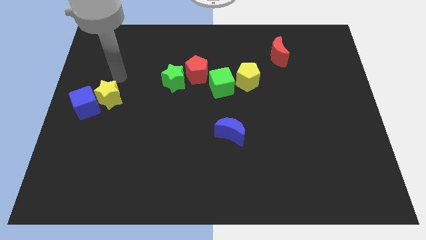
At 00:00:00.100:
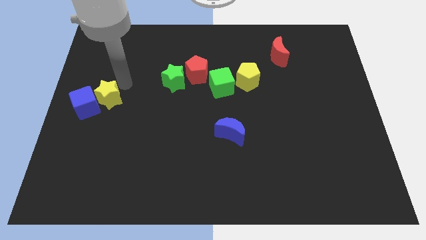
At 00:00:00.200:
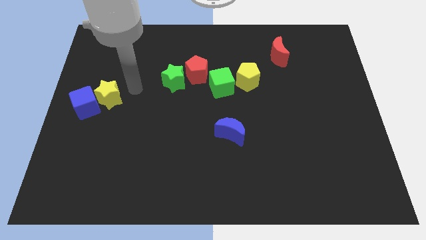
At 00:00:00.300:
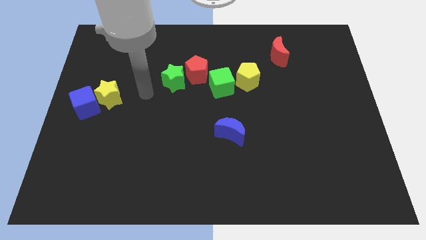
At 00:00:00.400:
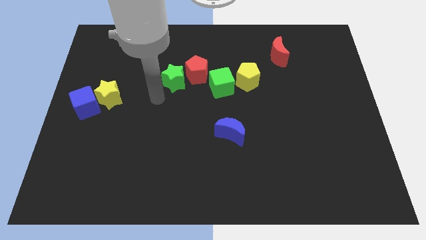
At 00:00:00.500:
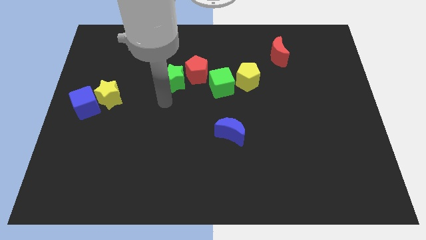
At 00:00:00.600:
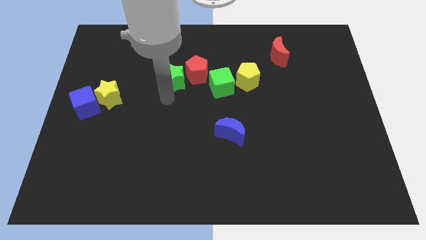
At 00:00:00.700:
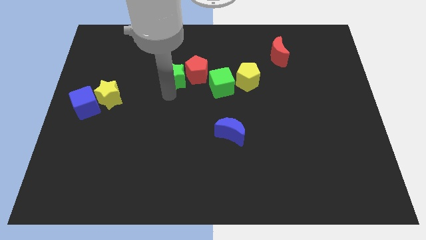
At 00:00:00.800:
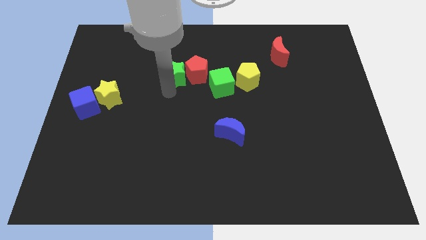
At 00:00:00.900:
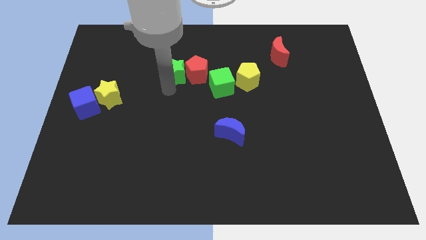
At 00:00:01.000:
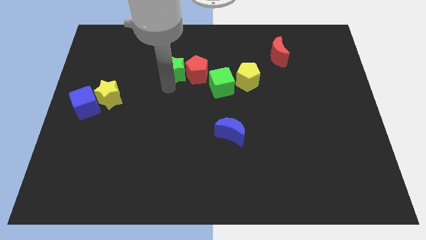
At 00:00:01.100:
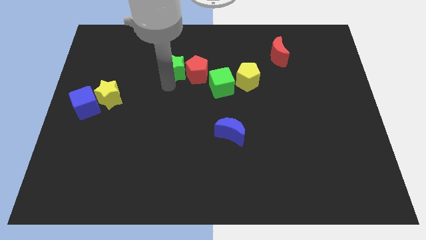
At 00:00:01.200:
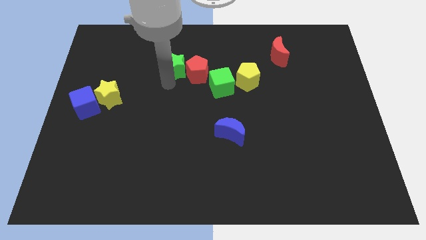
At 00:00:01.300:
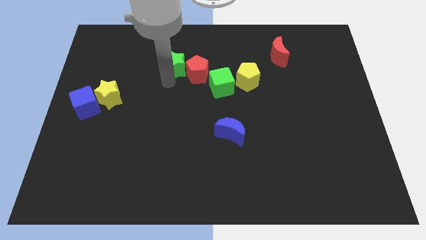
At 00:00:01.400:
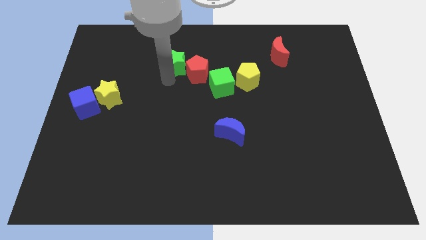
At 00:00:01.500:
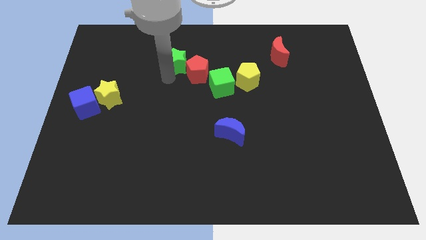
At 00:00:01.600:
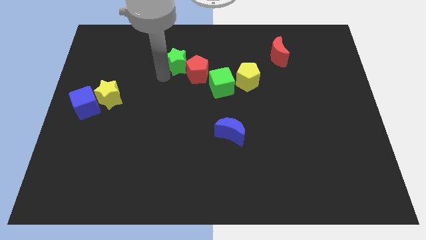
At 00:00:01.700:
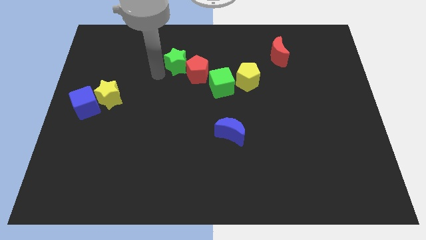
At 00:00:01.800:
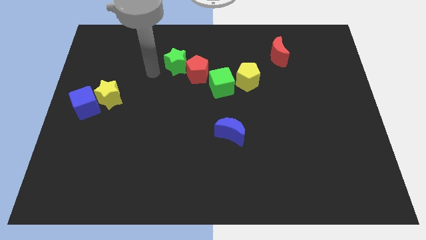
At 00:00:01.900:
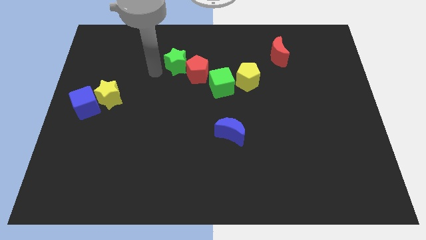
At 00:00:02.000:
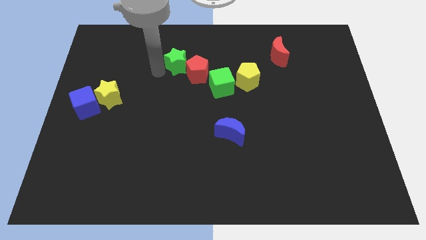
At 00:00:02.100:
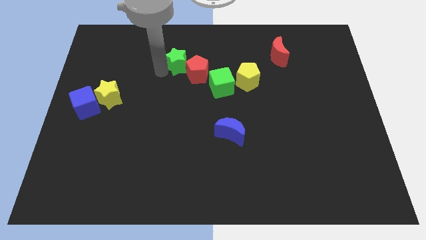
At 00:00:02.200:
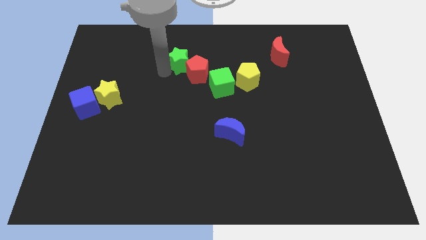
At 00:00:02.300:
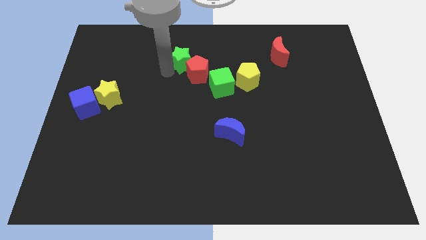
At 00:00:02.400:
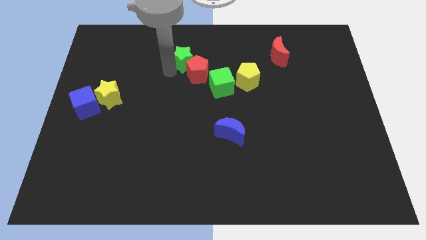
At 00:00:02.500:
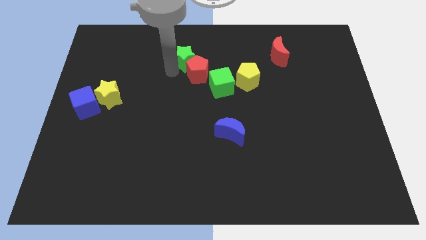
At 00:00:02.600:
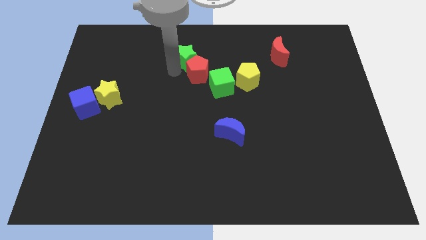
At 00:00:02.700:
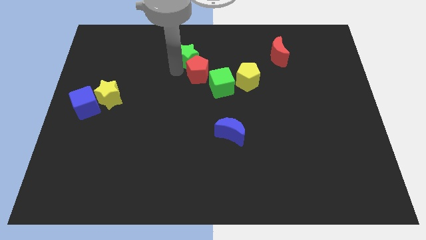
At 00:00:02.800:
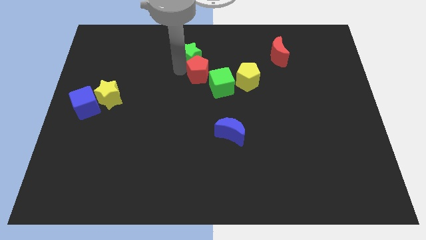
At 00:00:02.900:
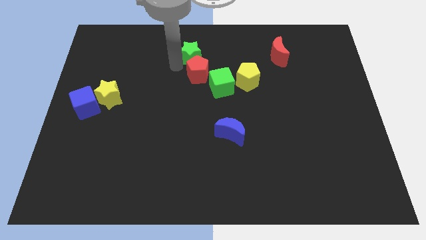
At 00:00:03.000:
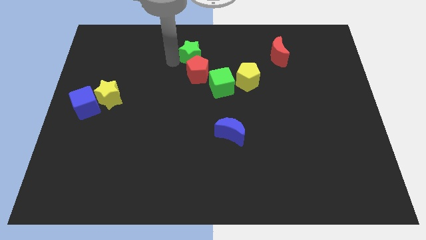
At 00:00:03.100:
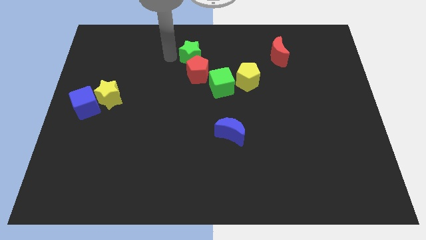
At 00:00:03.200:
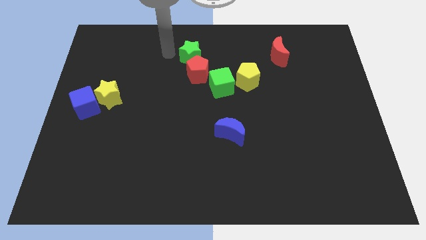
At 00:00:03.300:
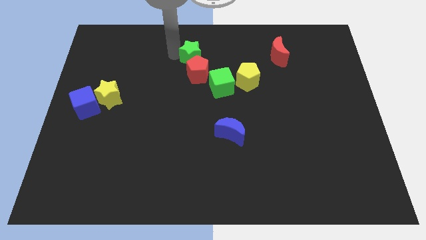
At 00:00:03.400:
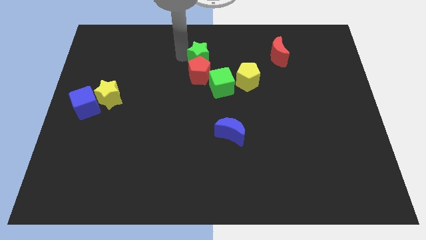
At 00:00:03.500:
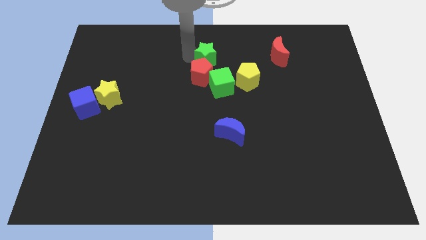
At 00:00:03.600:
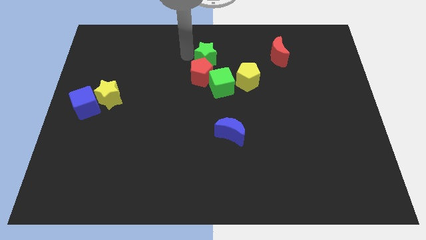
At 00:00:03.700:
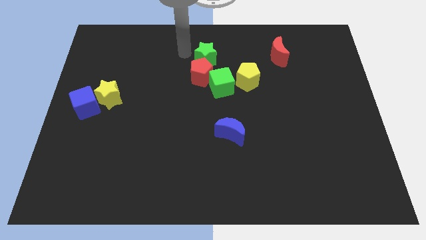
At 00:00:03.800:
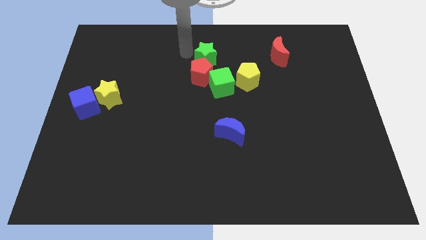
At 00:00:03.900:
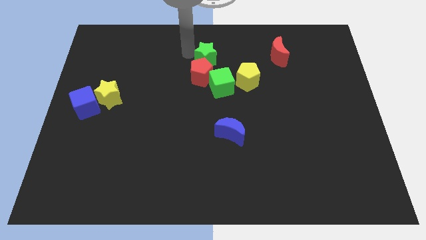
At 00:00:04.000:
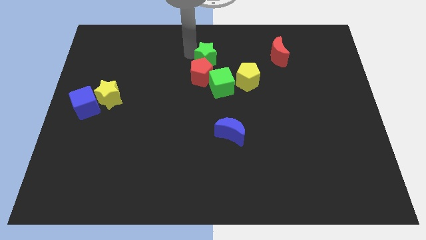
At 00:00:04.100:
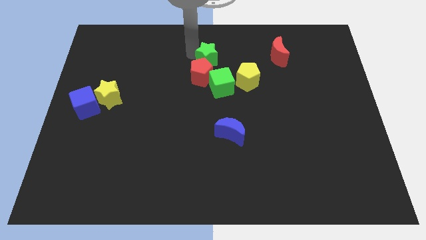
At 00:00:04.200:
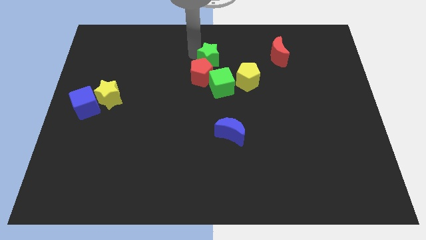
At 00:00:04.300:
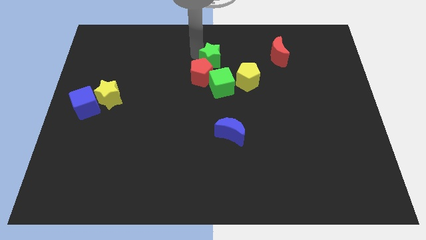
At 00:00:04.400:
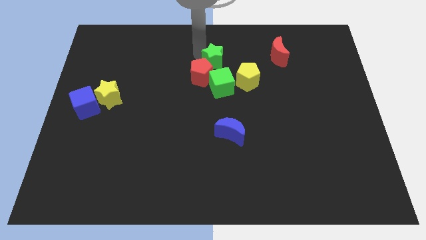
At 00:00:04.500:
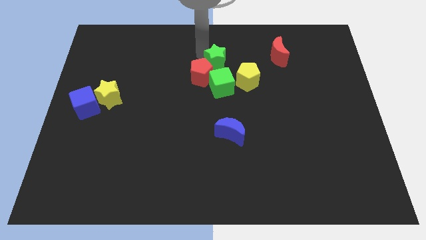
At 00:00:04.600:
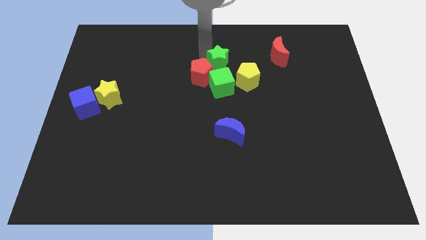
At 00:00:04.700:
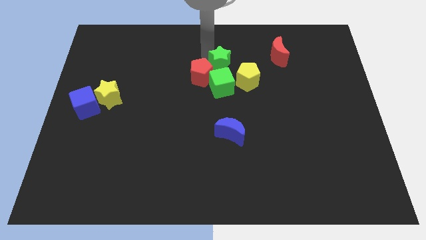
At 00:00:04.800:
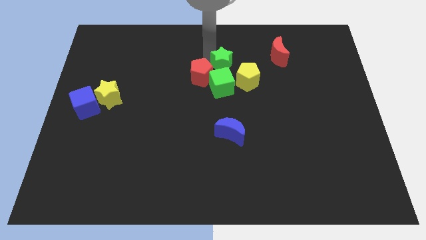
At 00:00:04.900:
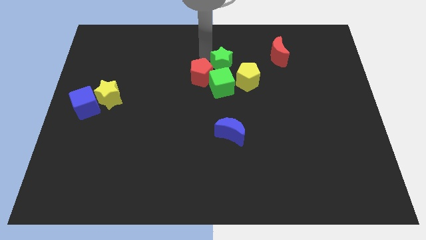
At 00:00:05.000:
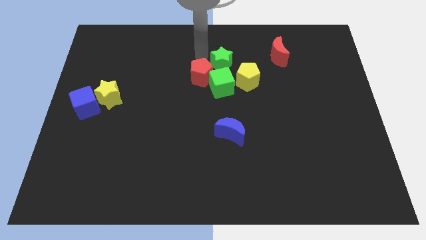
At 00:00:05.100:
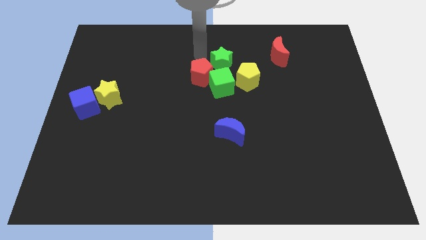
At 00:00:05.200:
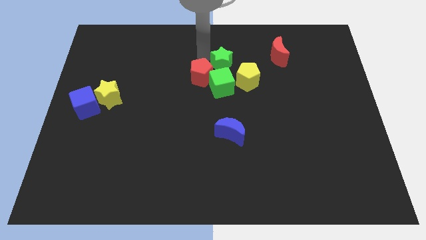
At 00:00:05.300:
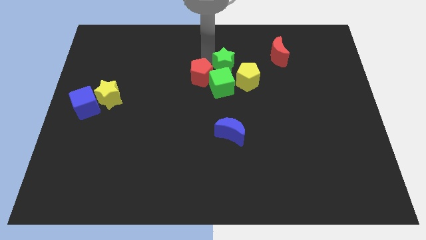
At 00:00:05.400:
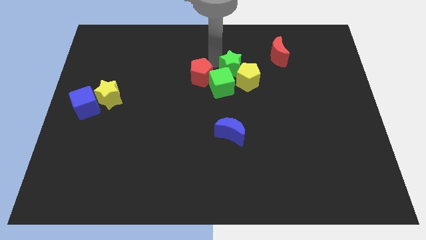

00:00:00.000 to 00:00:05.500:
slide the green star towards the yellow pentagon

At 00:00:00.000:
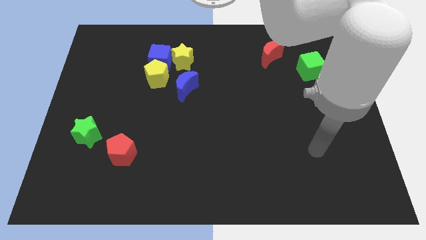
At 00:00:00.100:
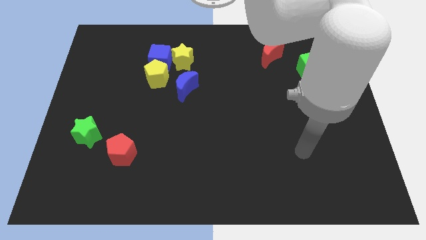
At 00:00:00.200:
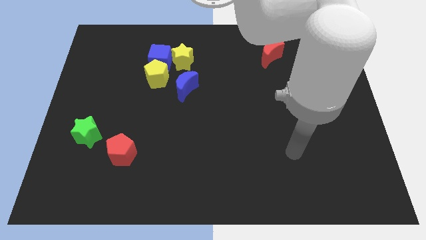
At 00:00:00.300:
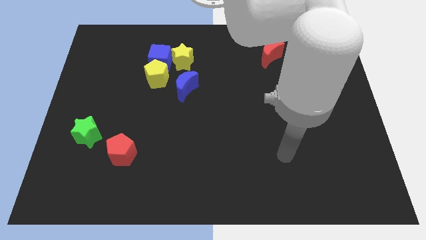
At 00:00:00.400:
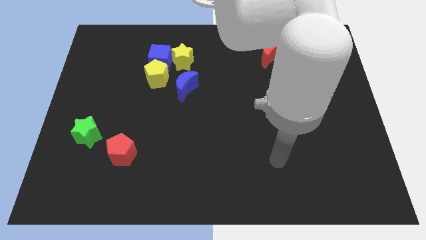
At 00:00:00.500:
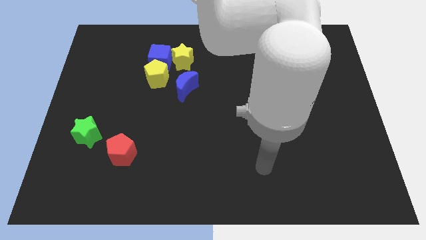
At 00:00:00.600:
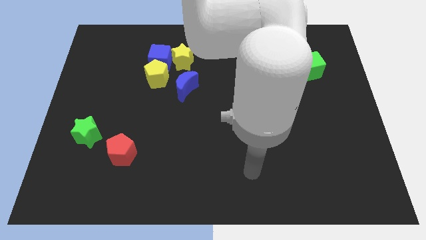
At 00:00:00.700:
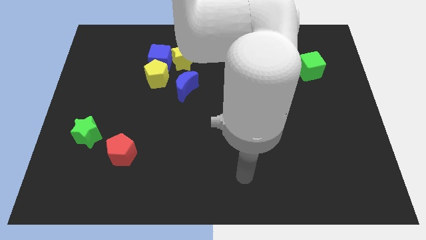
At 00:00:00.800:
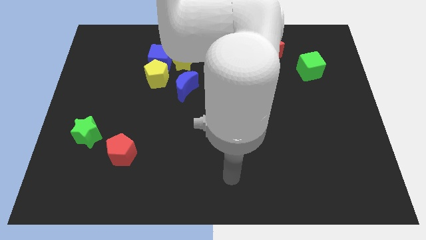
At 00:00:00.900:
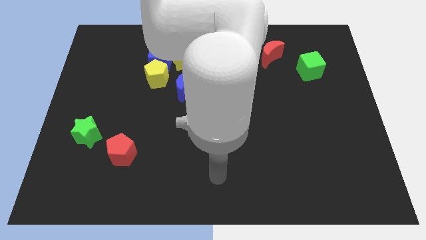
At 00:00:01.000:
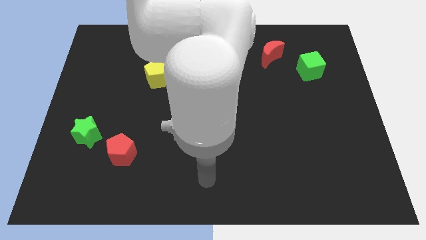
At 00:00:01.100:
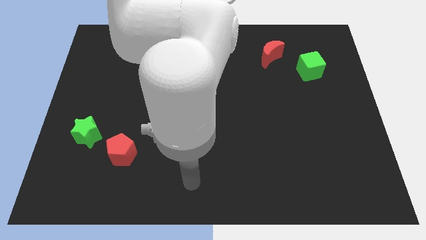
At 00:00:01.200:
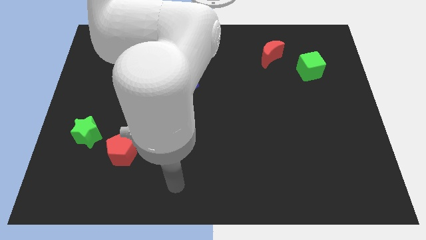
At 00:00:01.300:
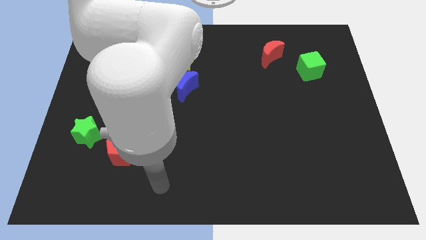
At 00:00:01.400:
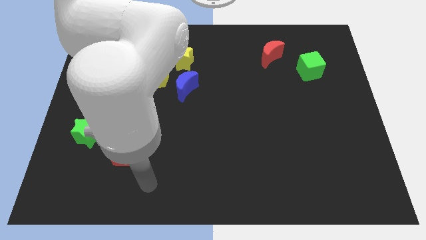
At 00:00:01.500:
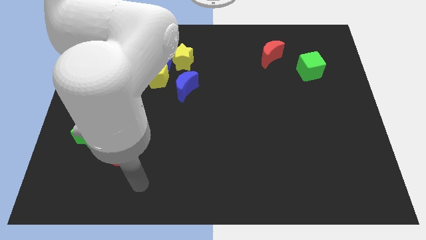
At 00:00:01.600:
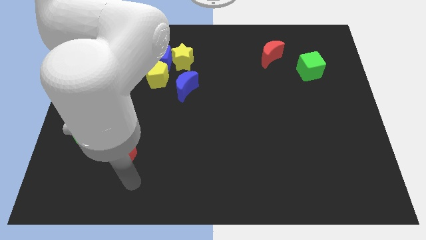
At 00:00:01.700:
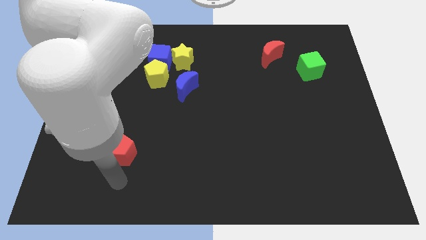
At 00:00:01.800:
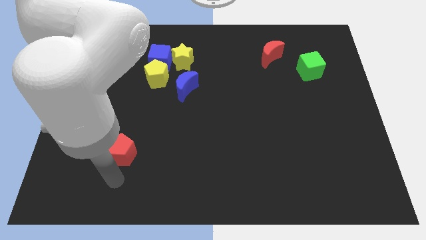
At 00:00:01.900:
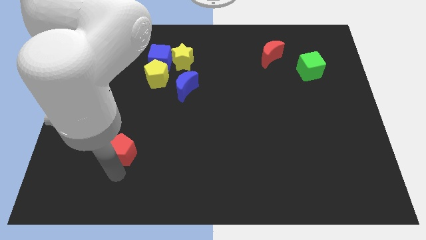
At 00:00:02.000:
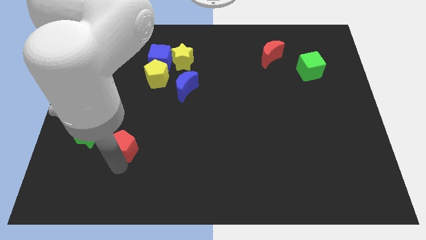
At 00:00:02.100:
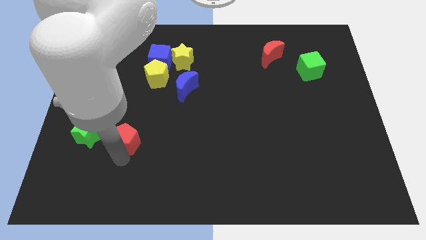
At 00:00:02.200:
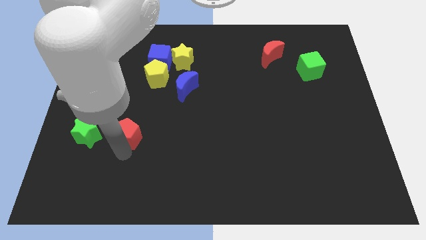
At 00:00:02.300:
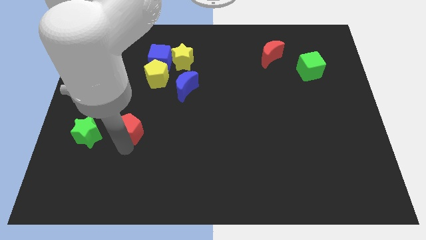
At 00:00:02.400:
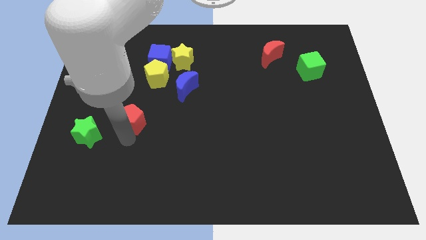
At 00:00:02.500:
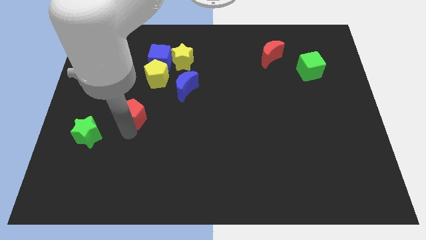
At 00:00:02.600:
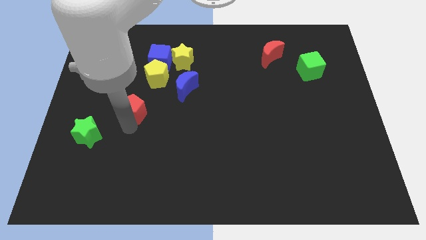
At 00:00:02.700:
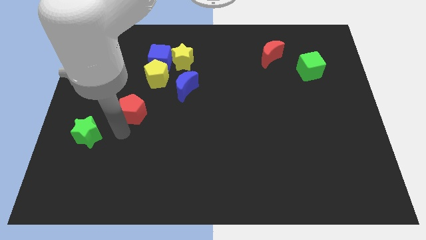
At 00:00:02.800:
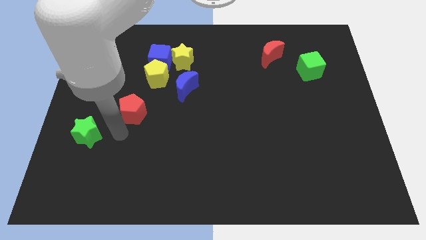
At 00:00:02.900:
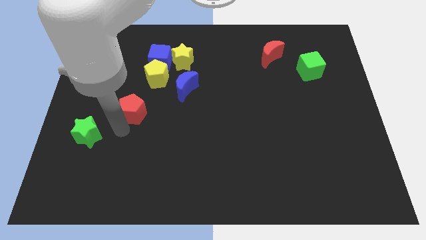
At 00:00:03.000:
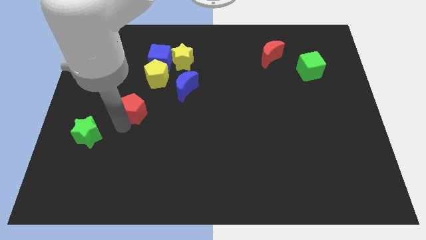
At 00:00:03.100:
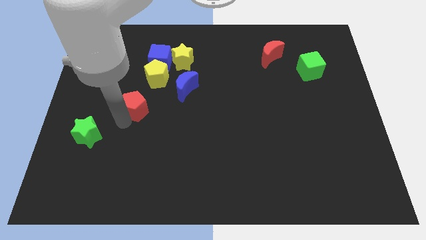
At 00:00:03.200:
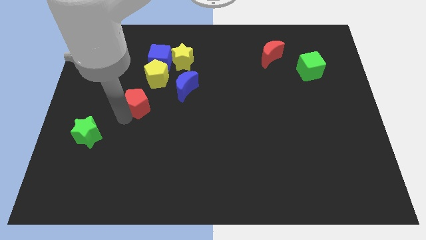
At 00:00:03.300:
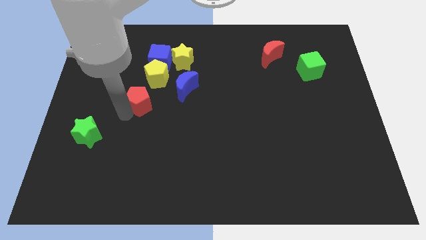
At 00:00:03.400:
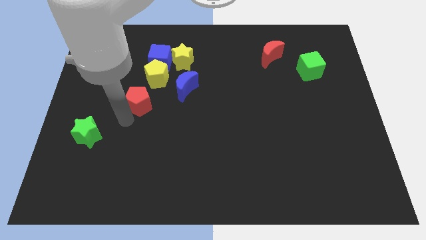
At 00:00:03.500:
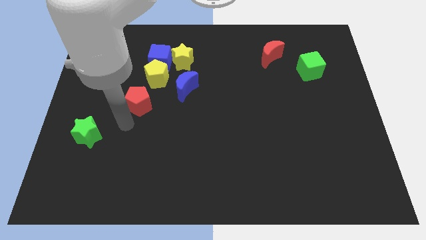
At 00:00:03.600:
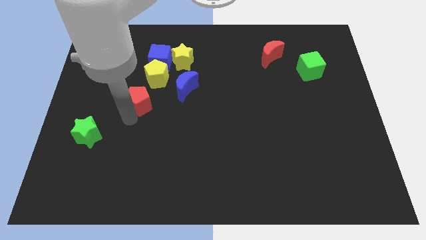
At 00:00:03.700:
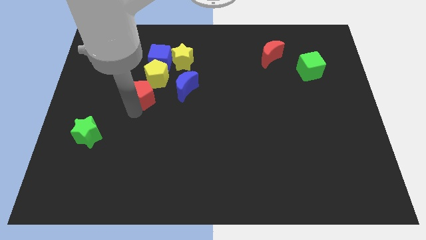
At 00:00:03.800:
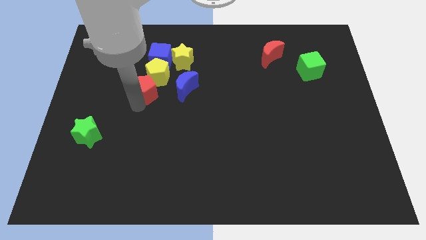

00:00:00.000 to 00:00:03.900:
slide the red pentagon to the yellow pentagon
